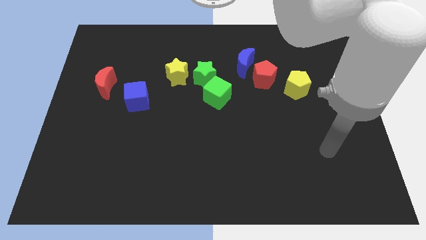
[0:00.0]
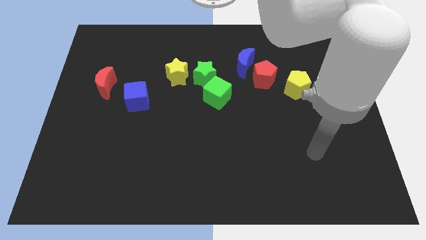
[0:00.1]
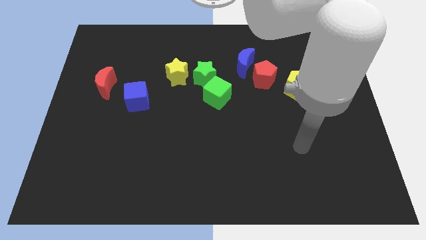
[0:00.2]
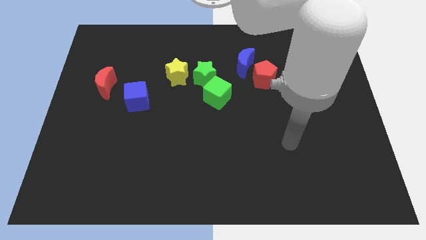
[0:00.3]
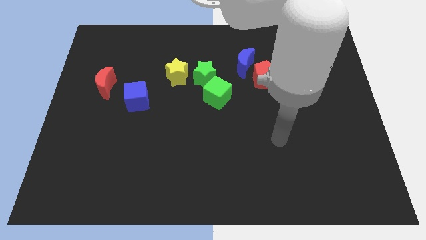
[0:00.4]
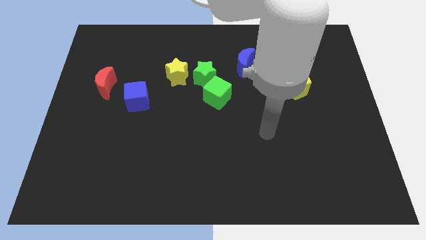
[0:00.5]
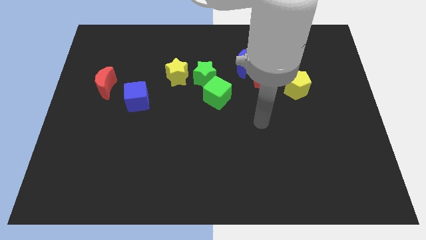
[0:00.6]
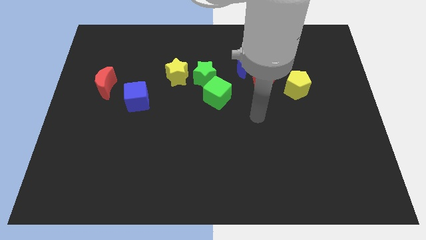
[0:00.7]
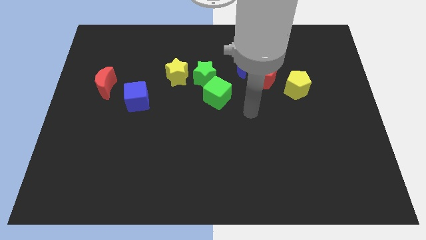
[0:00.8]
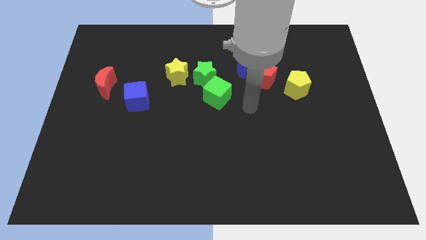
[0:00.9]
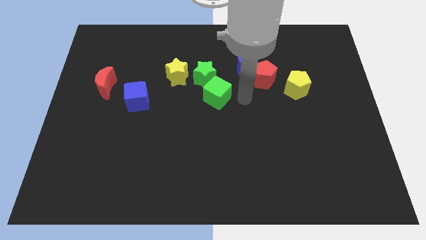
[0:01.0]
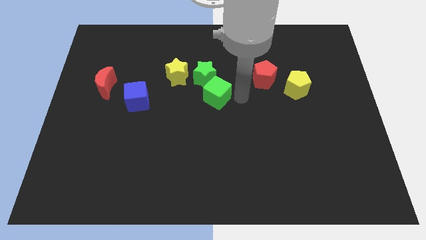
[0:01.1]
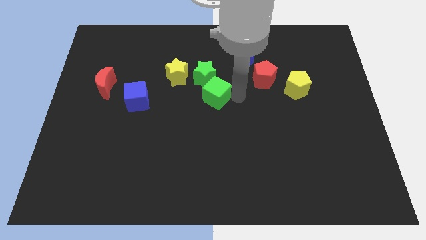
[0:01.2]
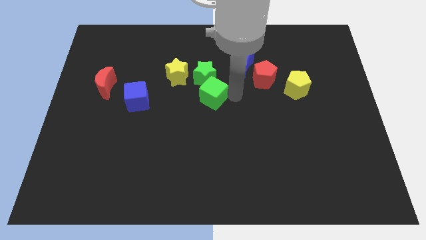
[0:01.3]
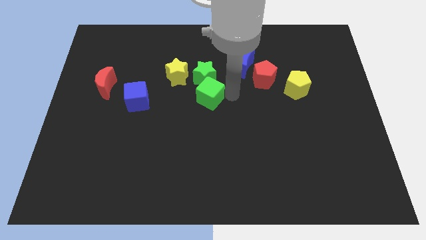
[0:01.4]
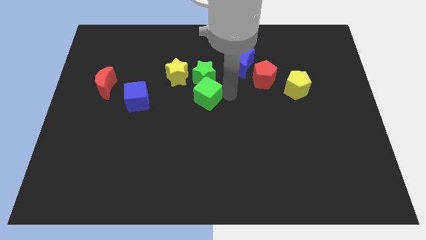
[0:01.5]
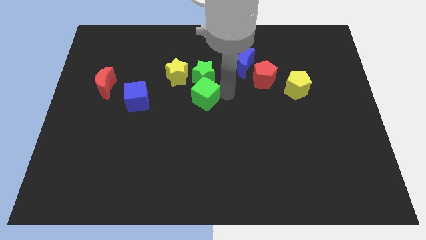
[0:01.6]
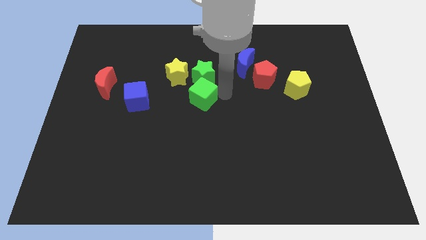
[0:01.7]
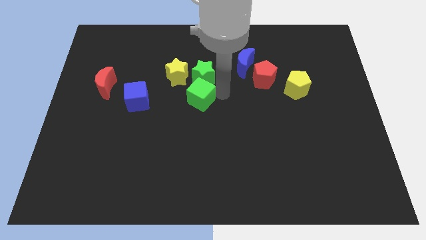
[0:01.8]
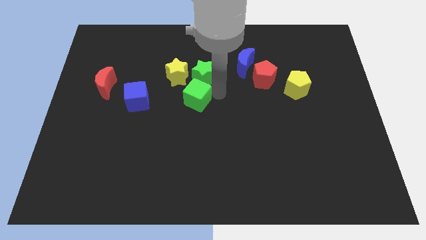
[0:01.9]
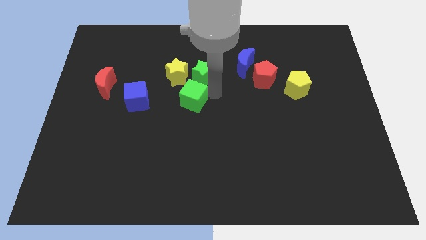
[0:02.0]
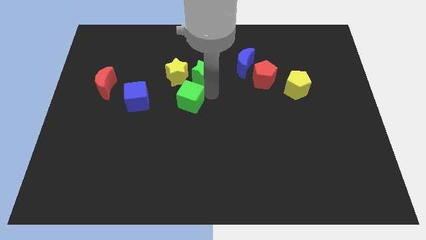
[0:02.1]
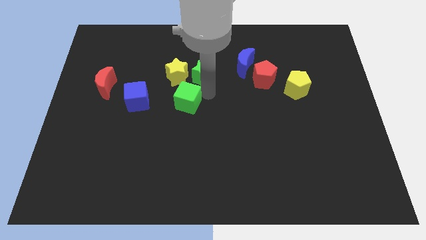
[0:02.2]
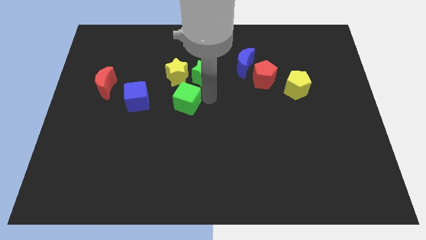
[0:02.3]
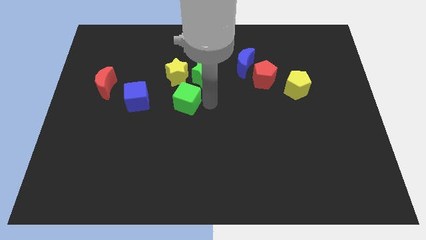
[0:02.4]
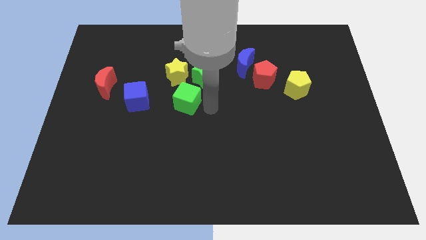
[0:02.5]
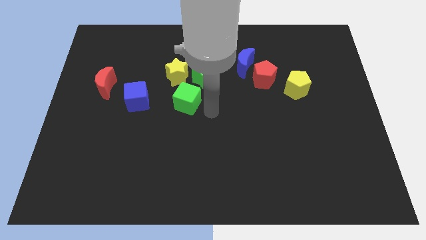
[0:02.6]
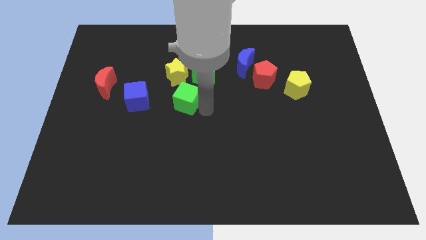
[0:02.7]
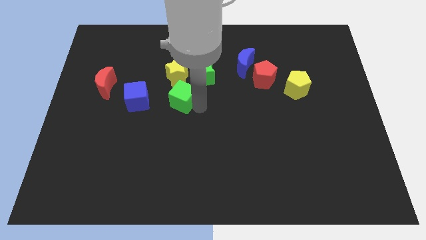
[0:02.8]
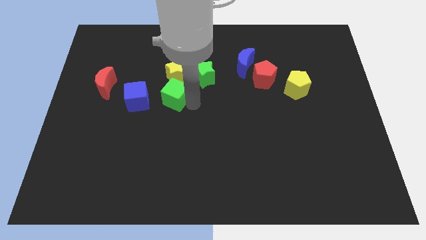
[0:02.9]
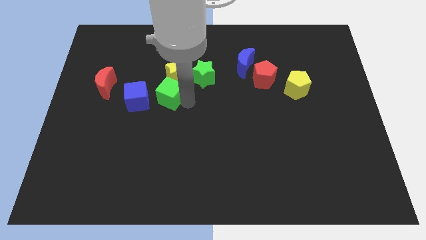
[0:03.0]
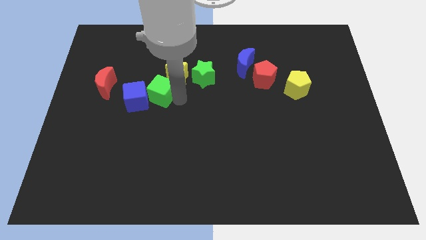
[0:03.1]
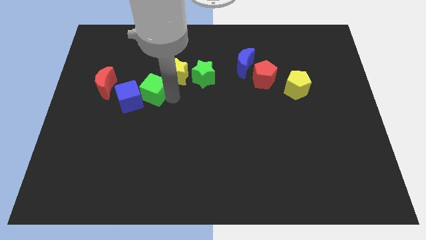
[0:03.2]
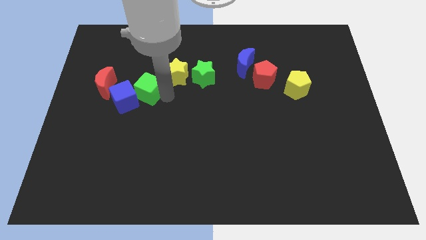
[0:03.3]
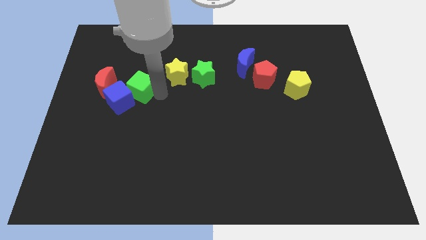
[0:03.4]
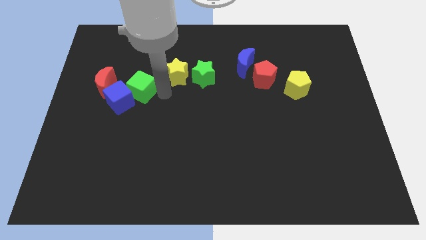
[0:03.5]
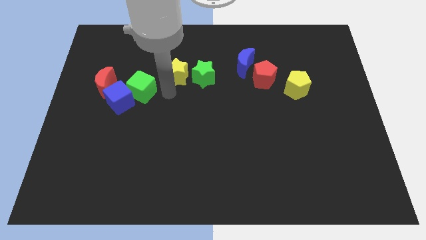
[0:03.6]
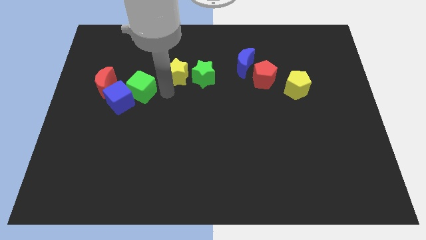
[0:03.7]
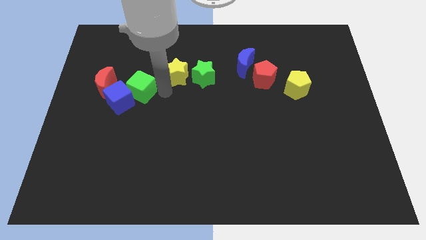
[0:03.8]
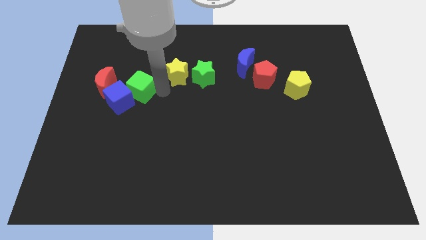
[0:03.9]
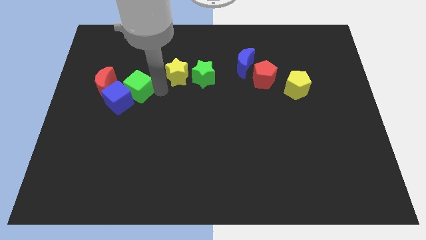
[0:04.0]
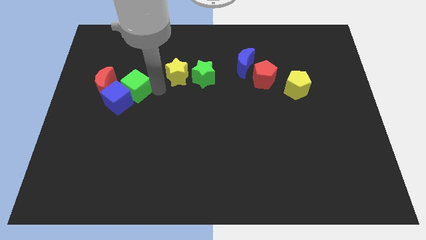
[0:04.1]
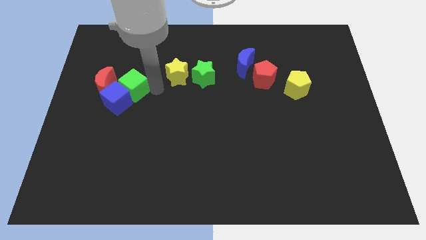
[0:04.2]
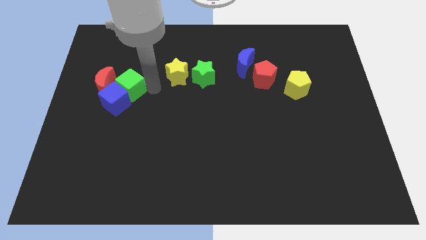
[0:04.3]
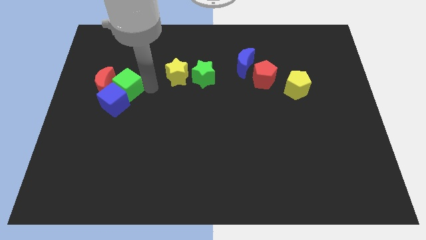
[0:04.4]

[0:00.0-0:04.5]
slide the green cube close to the red moon

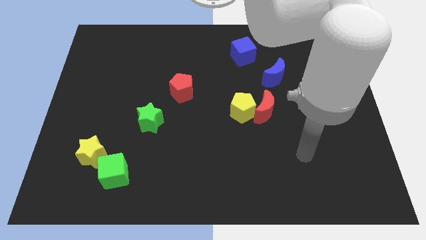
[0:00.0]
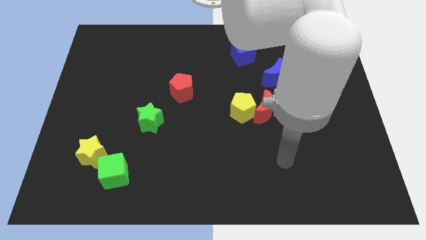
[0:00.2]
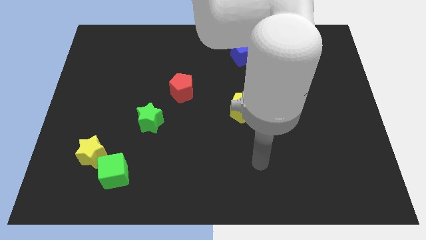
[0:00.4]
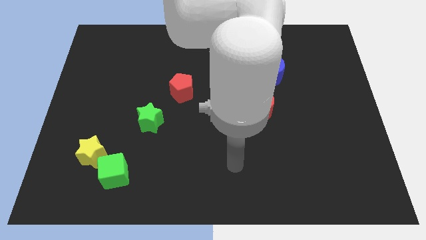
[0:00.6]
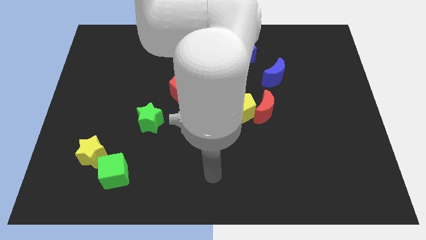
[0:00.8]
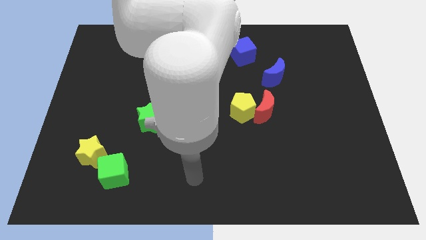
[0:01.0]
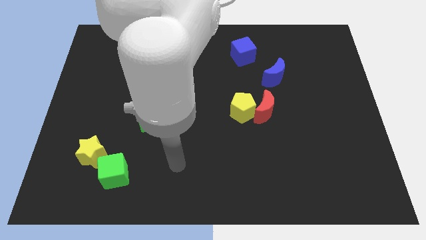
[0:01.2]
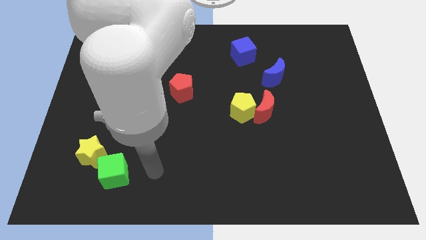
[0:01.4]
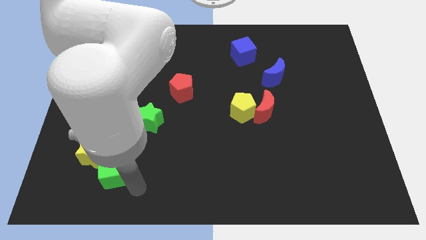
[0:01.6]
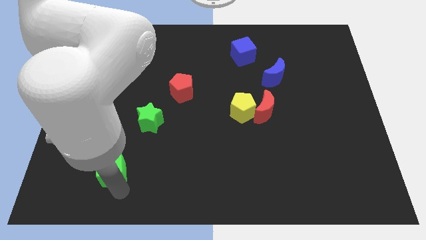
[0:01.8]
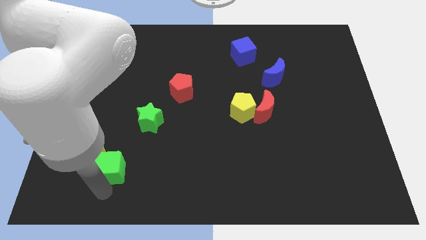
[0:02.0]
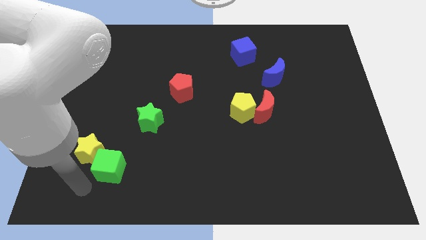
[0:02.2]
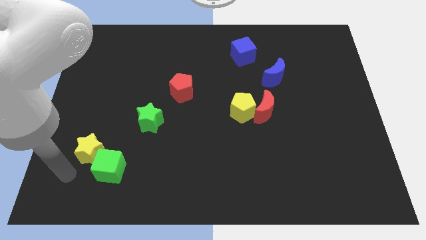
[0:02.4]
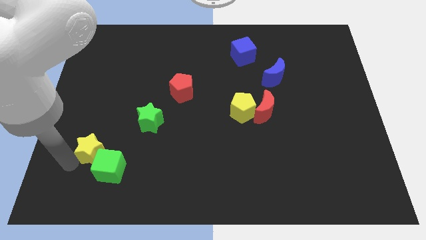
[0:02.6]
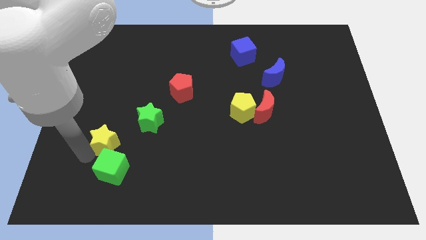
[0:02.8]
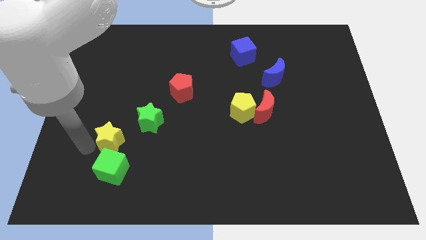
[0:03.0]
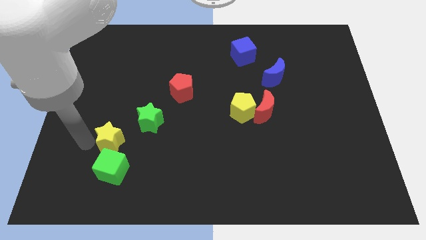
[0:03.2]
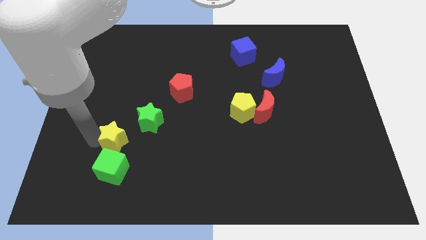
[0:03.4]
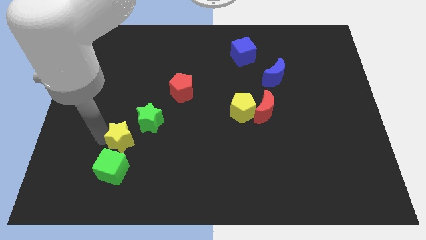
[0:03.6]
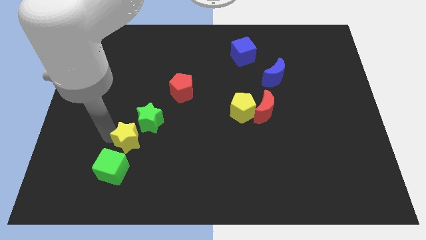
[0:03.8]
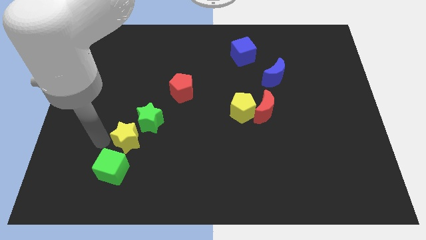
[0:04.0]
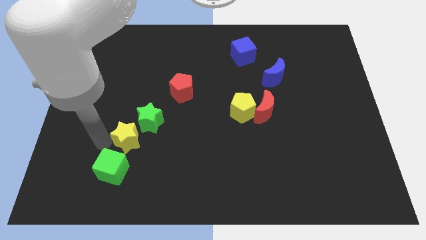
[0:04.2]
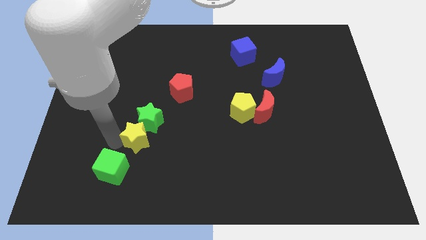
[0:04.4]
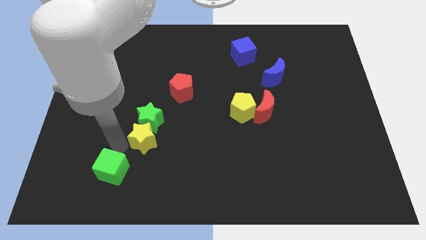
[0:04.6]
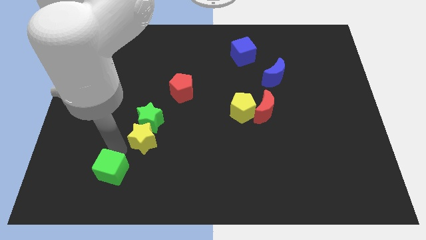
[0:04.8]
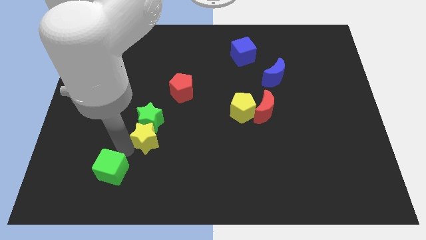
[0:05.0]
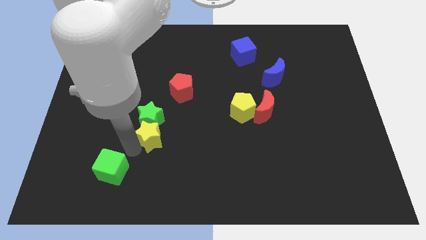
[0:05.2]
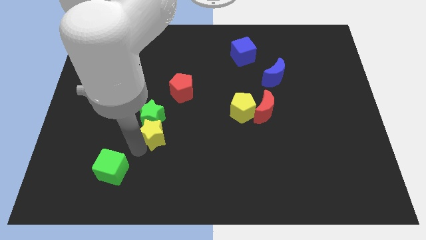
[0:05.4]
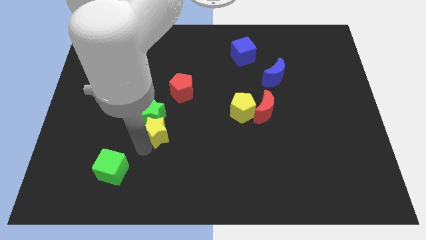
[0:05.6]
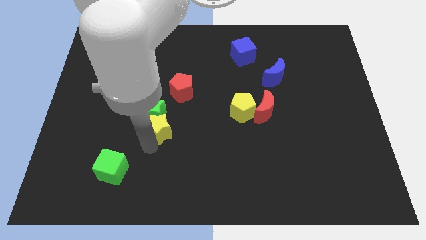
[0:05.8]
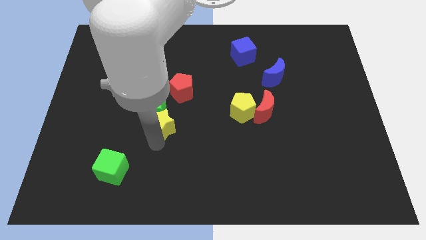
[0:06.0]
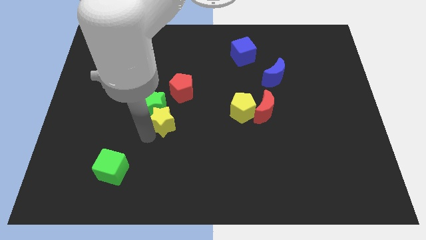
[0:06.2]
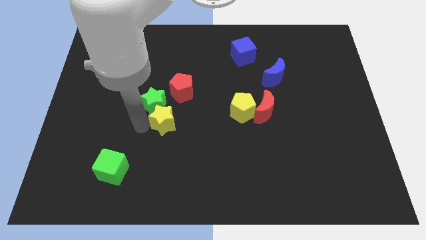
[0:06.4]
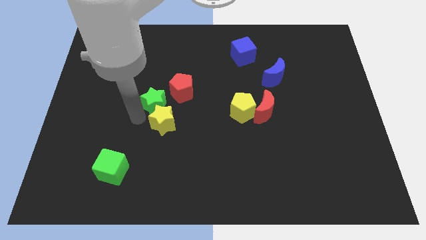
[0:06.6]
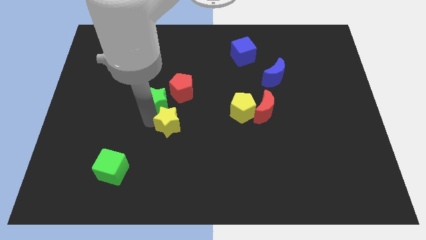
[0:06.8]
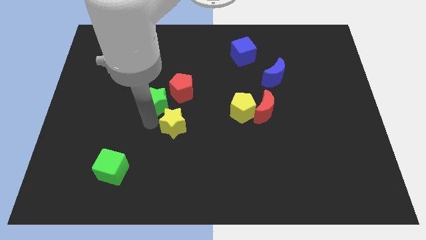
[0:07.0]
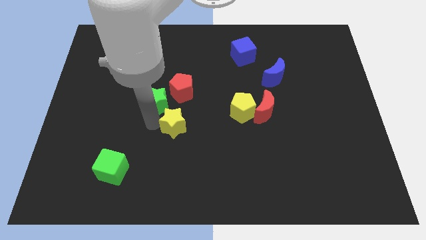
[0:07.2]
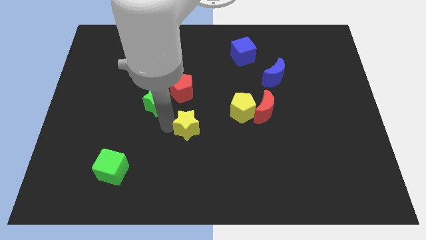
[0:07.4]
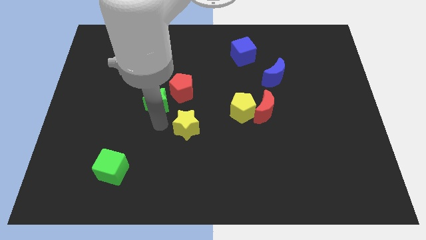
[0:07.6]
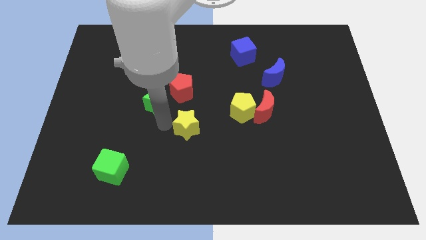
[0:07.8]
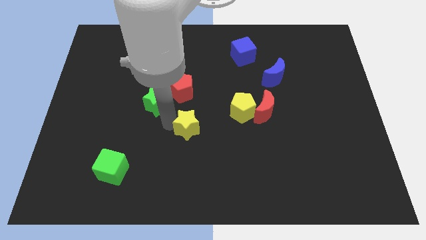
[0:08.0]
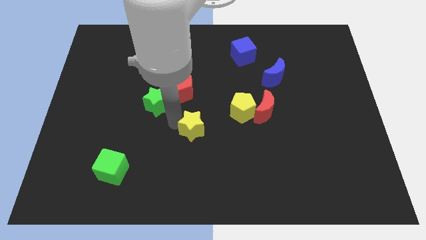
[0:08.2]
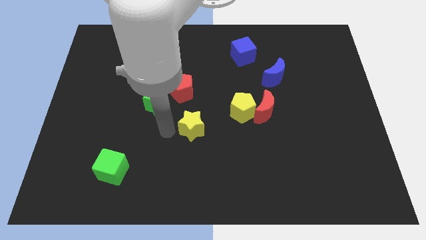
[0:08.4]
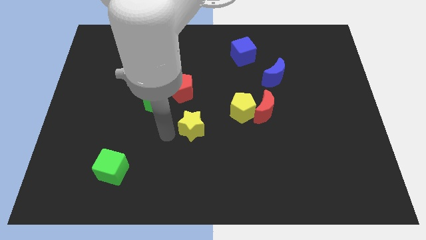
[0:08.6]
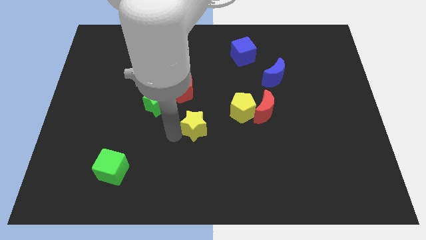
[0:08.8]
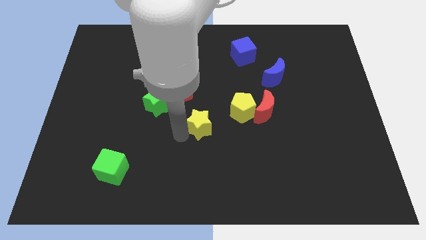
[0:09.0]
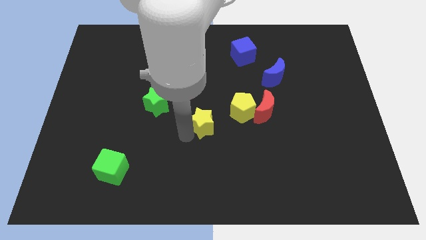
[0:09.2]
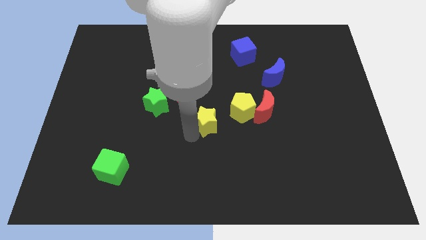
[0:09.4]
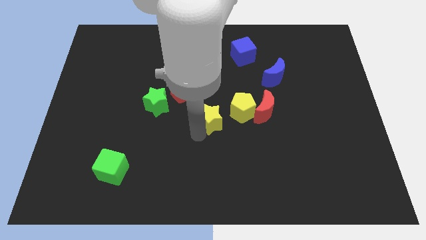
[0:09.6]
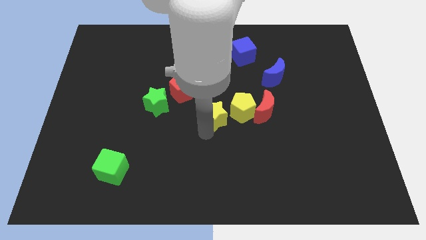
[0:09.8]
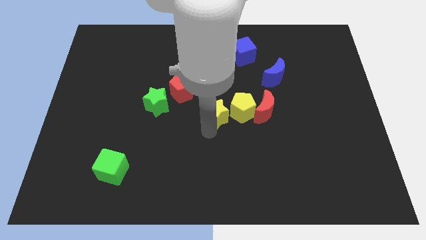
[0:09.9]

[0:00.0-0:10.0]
move the yellow star close to the yellow pentagon
